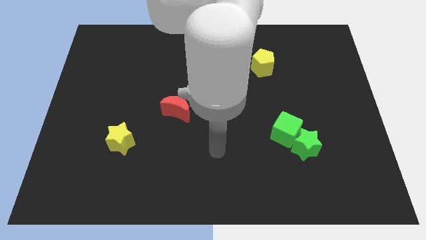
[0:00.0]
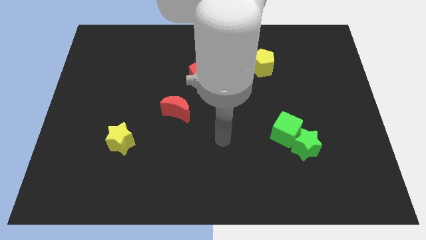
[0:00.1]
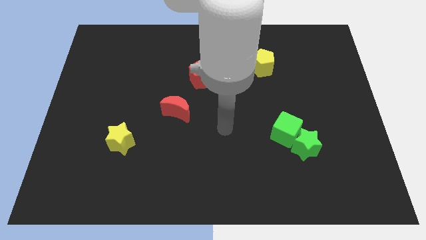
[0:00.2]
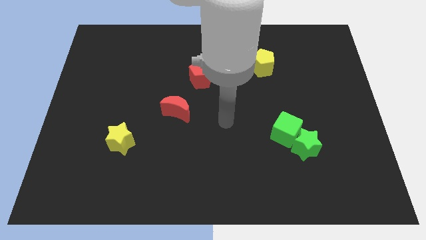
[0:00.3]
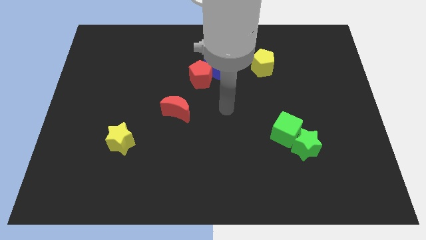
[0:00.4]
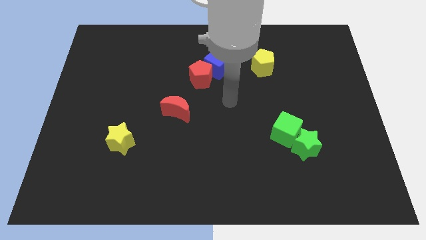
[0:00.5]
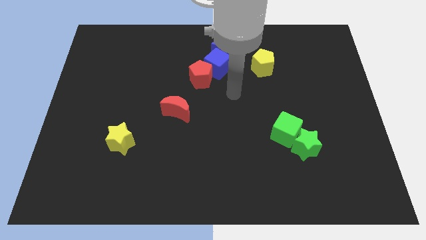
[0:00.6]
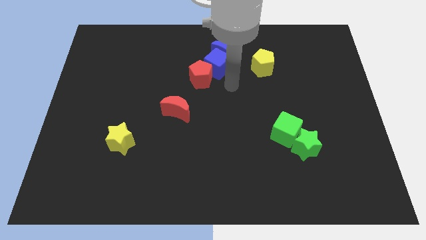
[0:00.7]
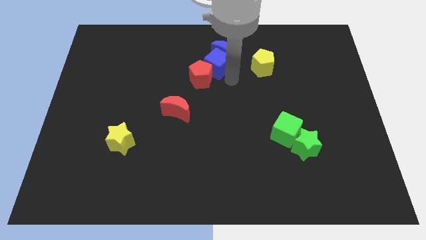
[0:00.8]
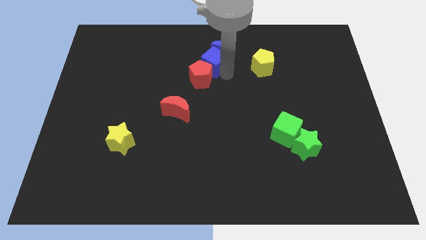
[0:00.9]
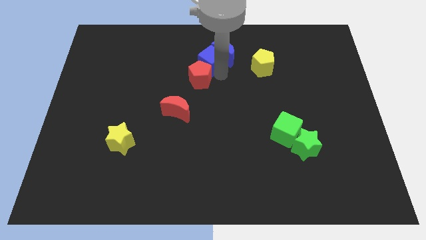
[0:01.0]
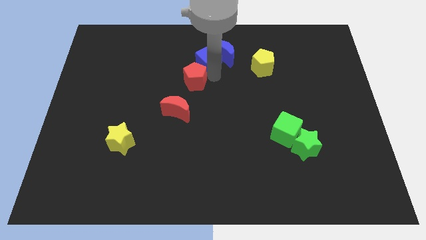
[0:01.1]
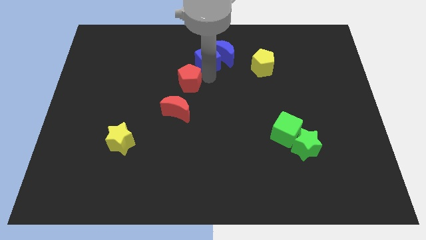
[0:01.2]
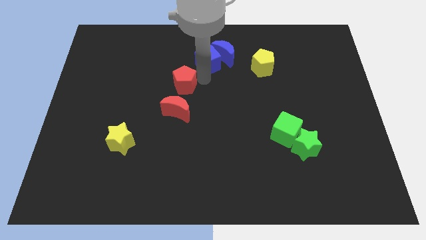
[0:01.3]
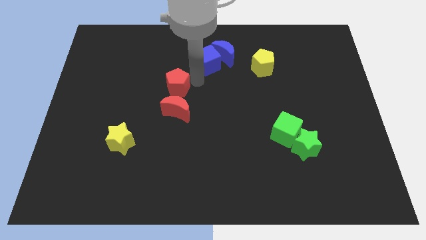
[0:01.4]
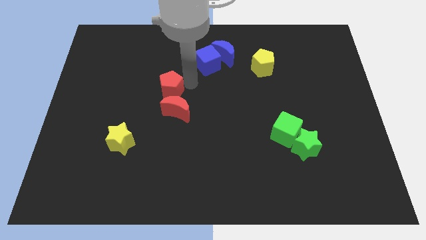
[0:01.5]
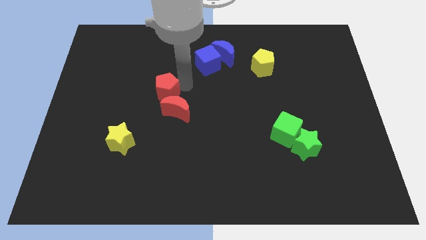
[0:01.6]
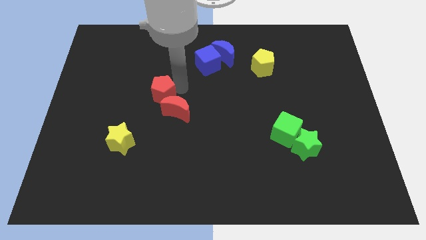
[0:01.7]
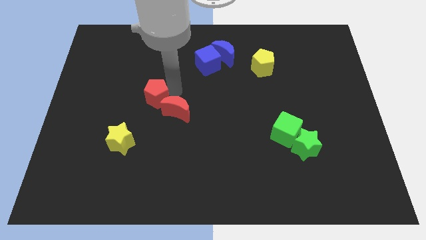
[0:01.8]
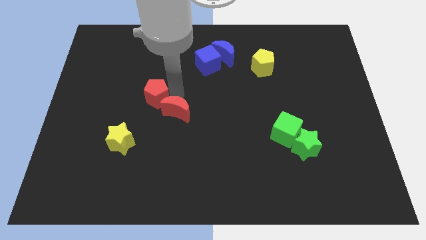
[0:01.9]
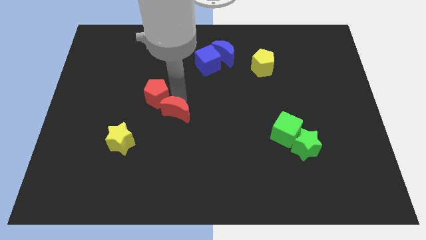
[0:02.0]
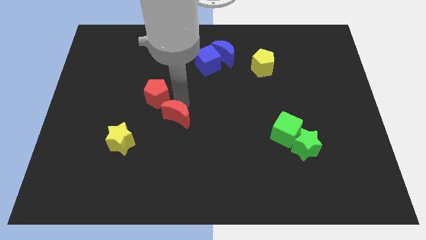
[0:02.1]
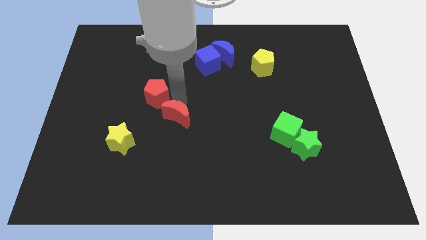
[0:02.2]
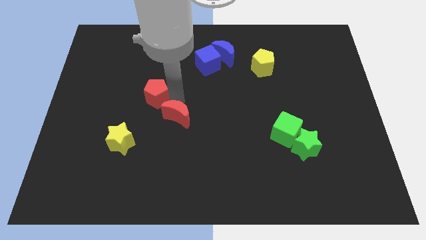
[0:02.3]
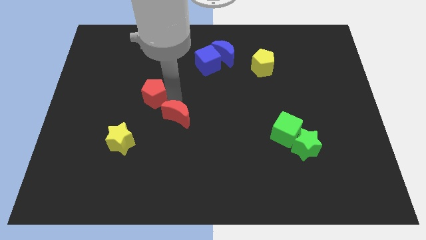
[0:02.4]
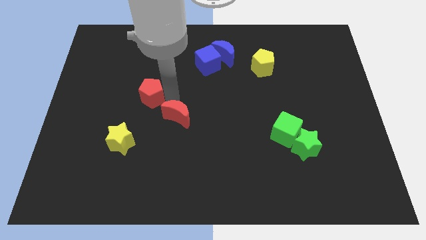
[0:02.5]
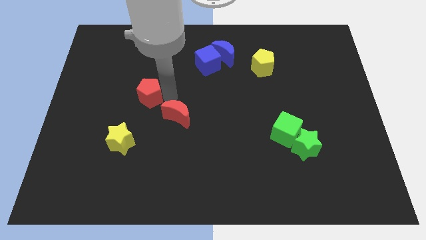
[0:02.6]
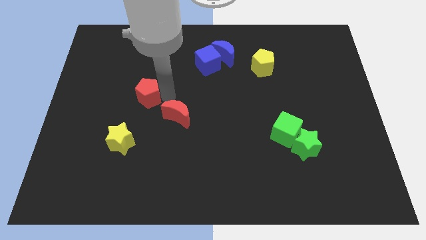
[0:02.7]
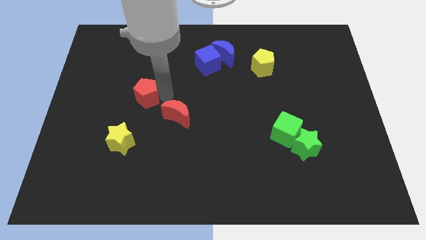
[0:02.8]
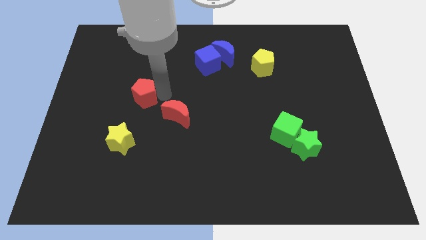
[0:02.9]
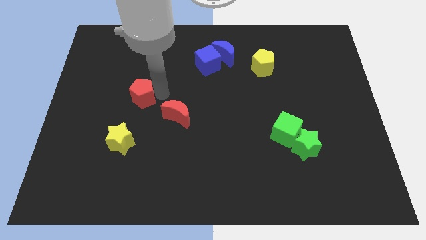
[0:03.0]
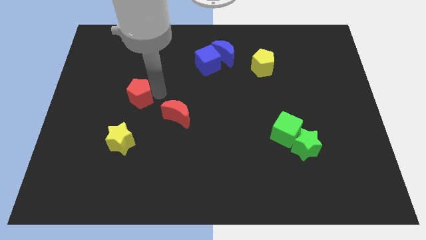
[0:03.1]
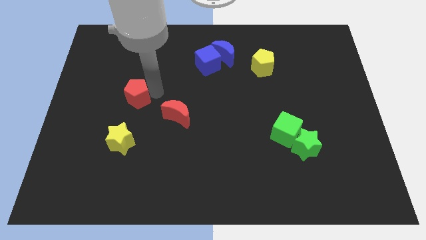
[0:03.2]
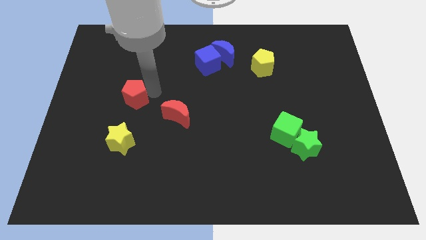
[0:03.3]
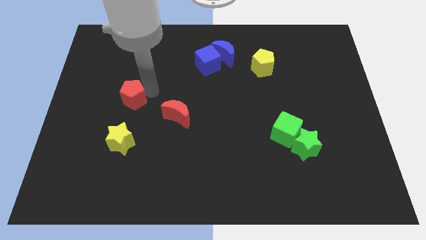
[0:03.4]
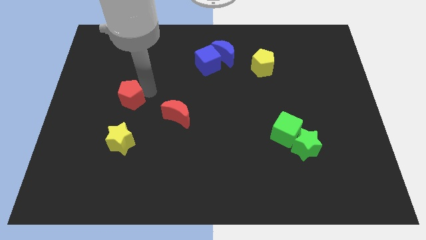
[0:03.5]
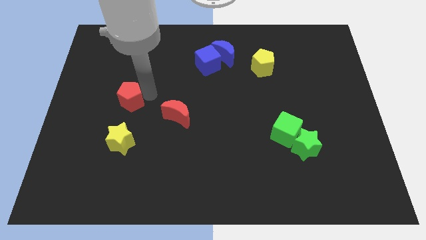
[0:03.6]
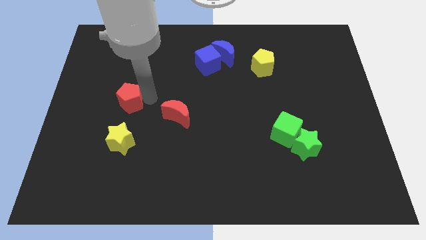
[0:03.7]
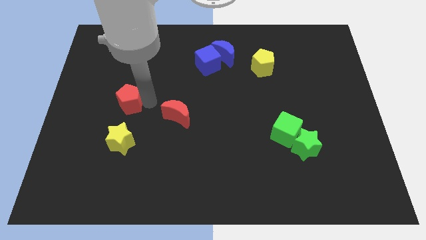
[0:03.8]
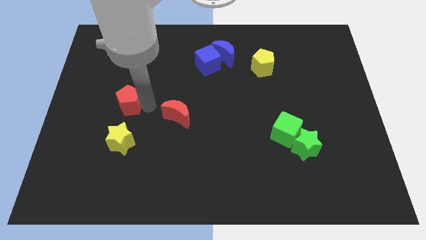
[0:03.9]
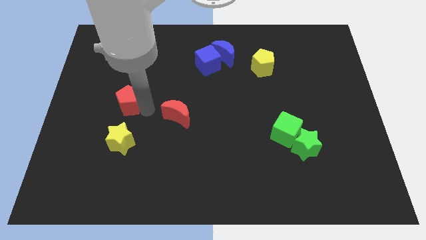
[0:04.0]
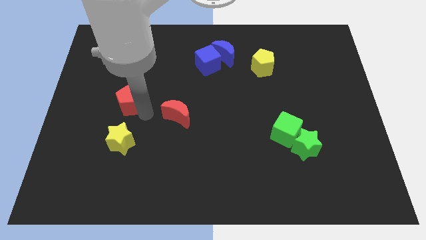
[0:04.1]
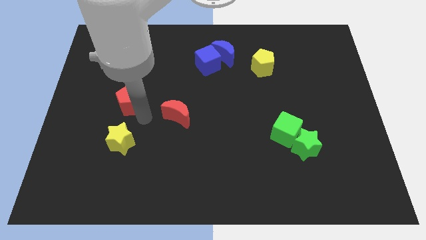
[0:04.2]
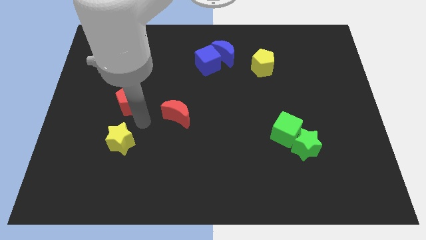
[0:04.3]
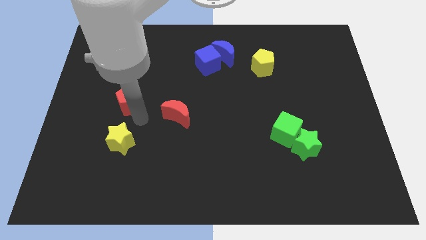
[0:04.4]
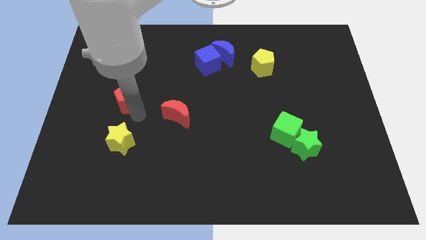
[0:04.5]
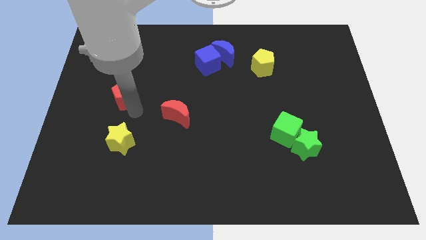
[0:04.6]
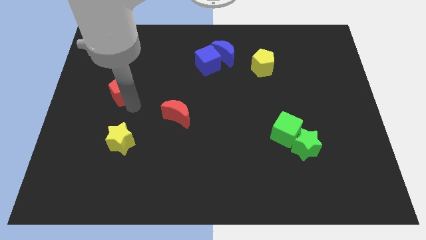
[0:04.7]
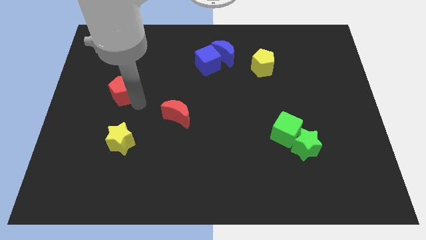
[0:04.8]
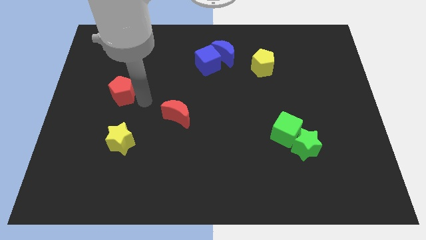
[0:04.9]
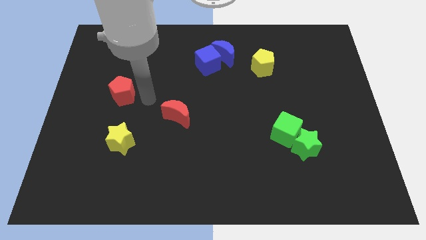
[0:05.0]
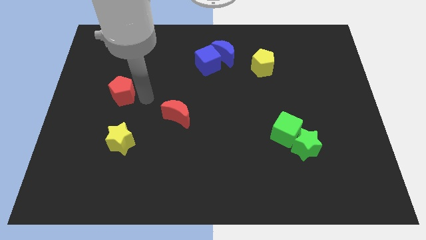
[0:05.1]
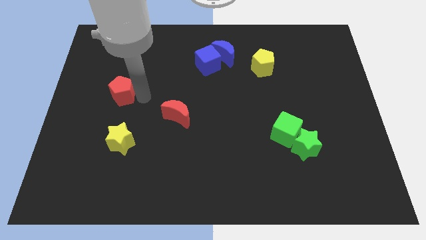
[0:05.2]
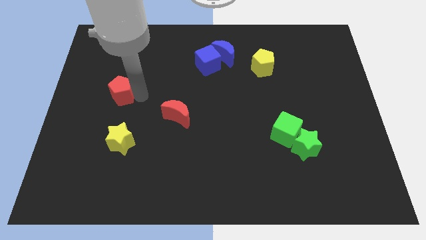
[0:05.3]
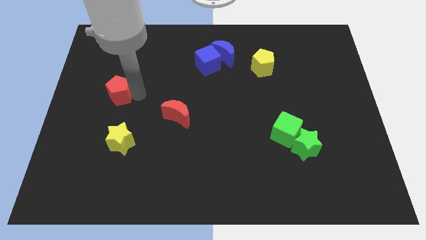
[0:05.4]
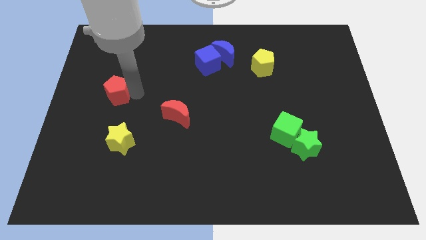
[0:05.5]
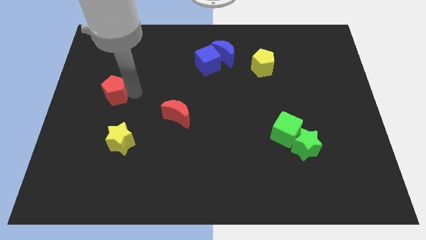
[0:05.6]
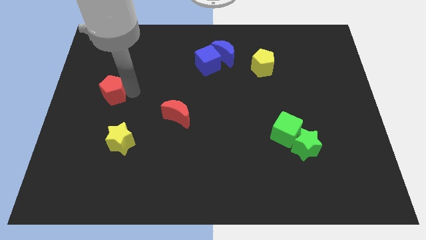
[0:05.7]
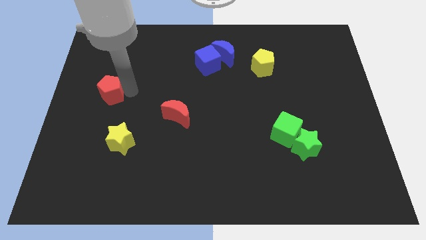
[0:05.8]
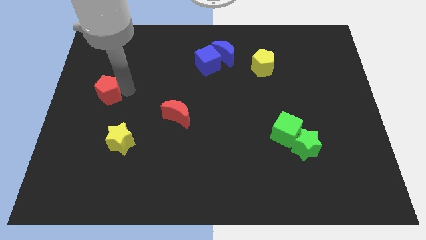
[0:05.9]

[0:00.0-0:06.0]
push the red pentagon to the center left

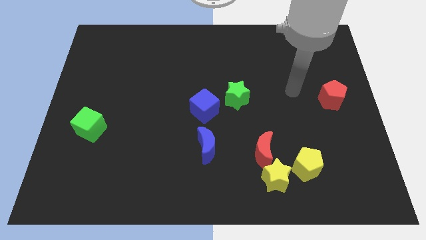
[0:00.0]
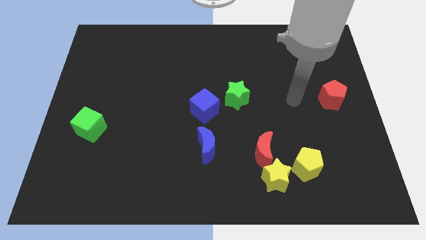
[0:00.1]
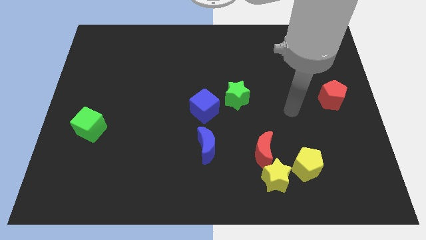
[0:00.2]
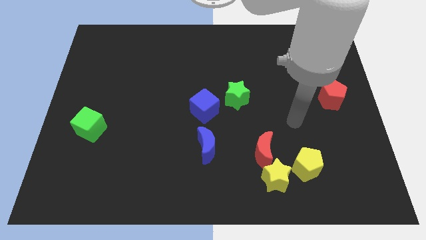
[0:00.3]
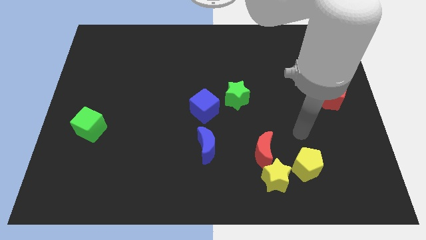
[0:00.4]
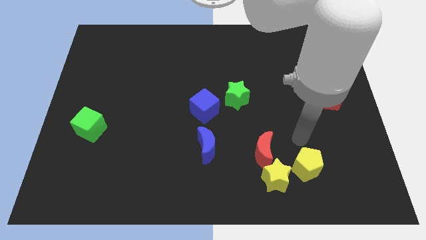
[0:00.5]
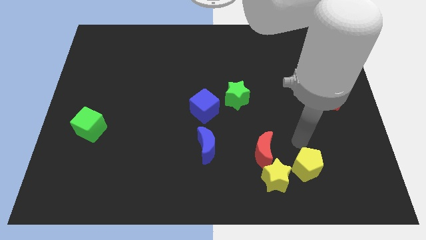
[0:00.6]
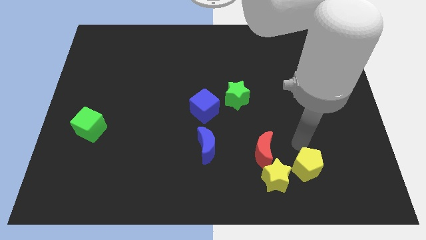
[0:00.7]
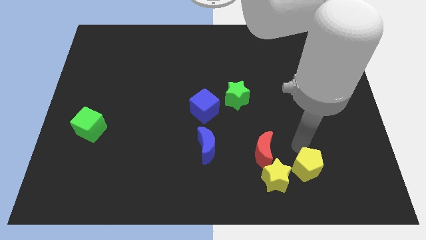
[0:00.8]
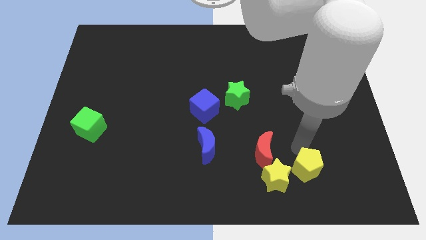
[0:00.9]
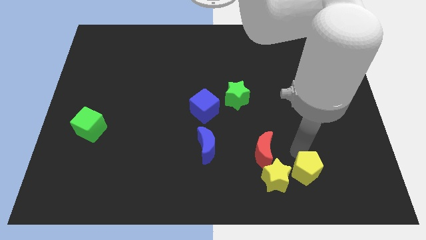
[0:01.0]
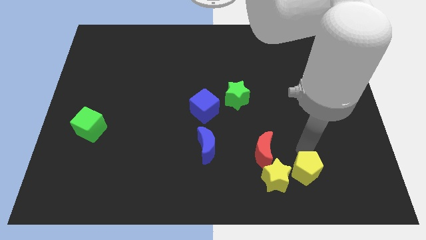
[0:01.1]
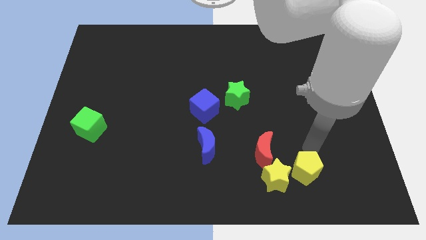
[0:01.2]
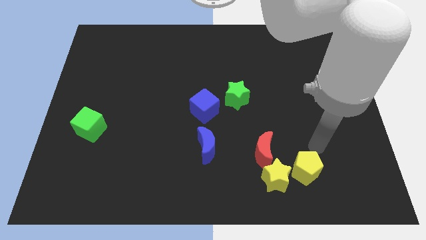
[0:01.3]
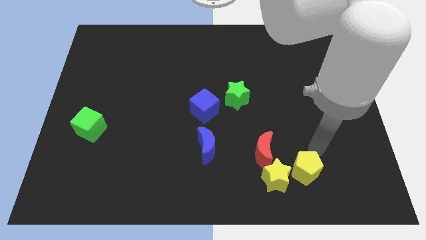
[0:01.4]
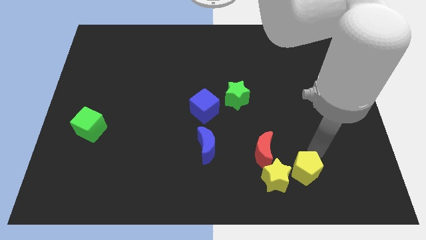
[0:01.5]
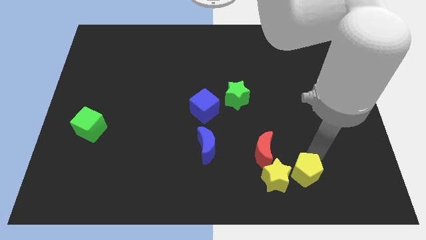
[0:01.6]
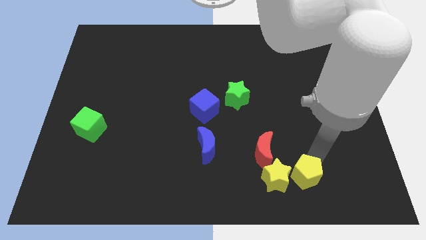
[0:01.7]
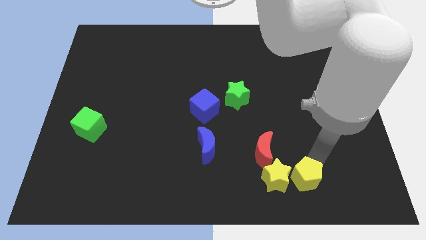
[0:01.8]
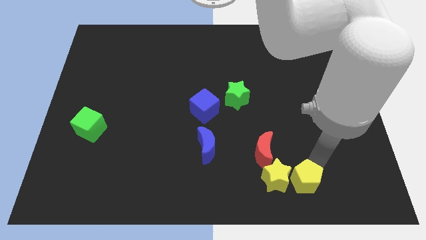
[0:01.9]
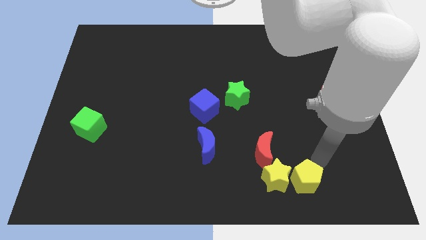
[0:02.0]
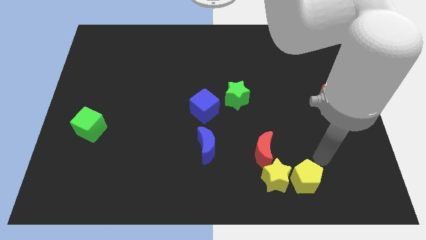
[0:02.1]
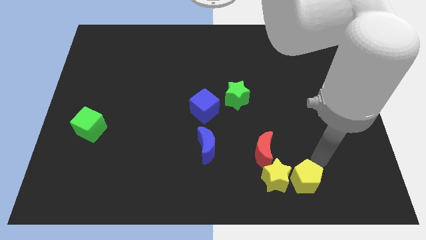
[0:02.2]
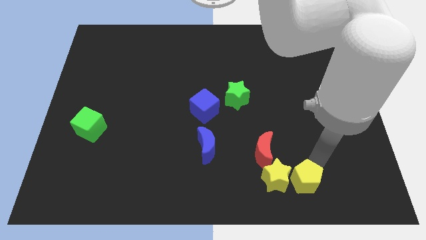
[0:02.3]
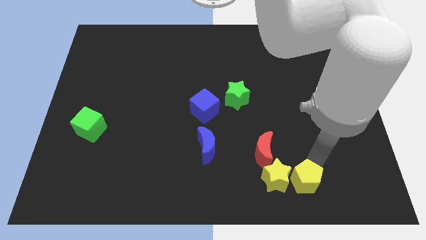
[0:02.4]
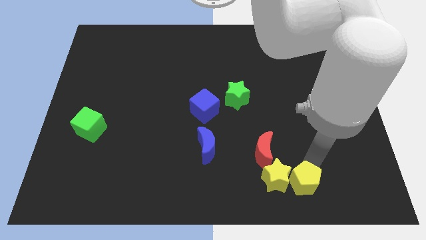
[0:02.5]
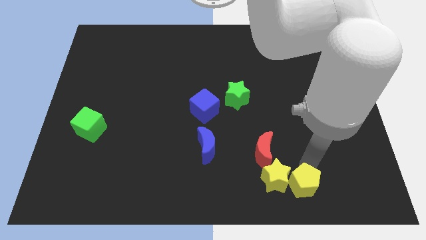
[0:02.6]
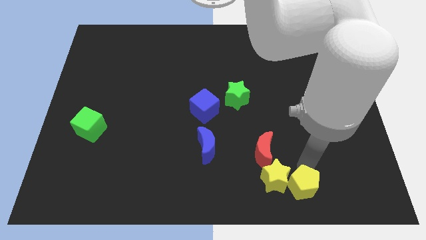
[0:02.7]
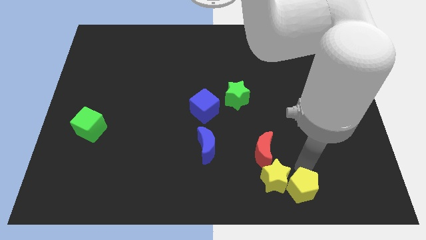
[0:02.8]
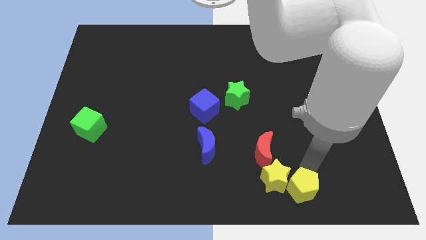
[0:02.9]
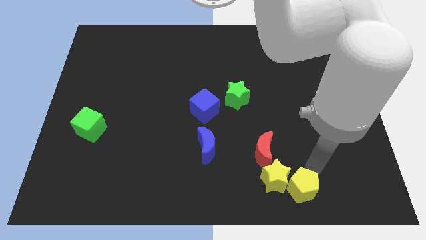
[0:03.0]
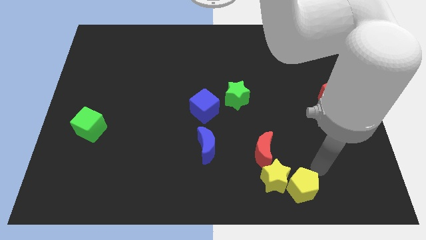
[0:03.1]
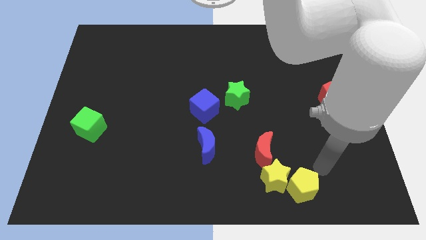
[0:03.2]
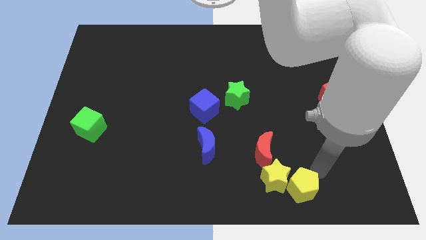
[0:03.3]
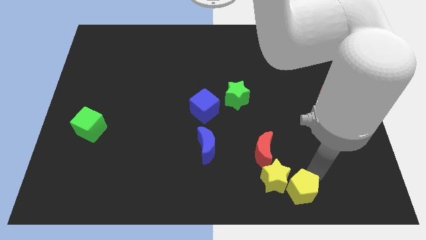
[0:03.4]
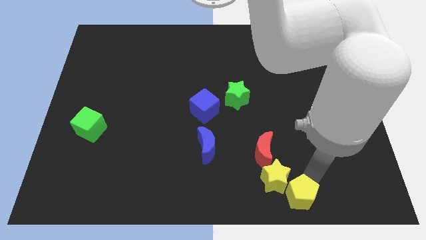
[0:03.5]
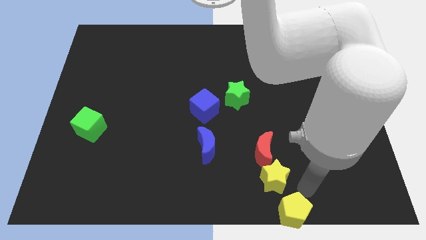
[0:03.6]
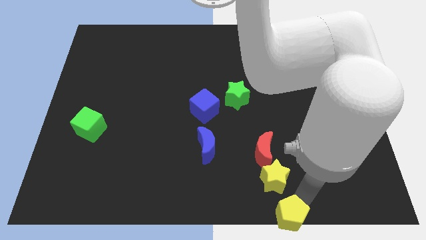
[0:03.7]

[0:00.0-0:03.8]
move the yellow pentagon to the bottom
